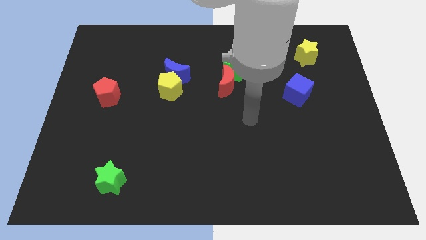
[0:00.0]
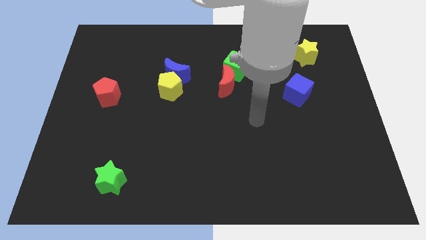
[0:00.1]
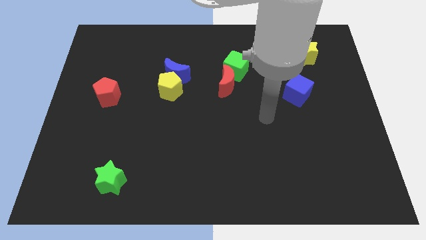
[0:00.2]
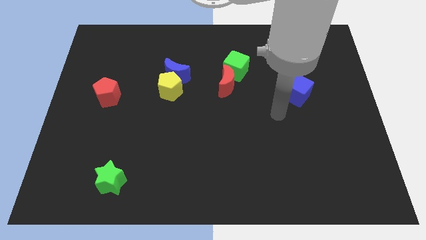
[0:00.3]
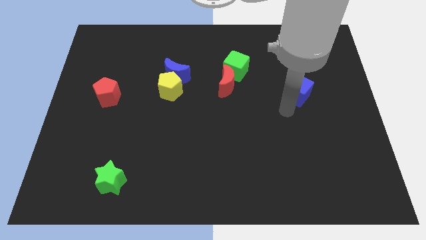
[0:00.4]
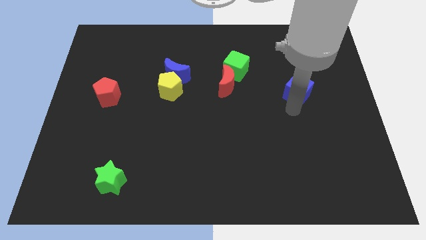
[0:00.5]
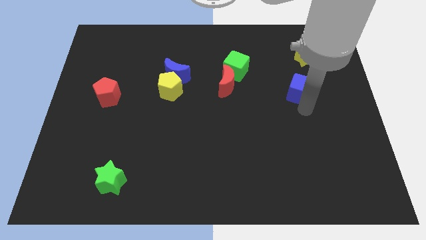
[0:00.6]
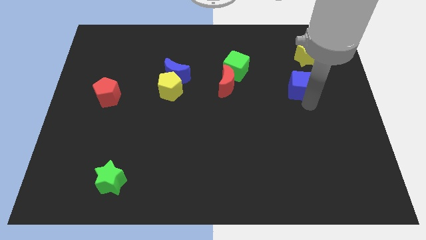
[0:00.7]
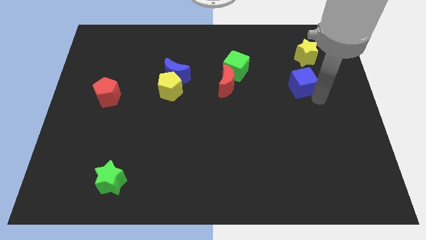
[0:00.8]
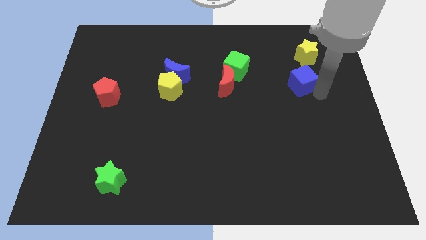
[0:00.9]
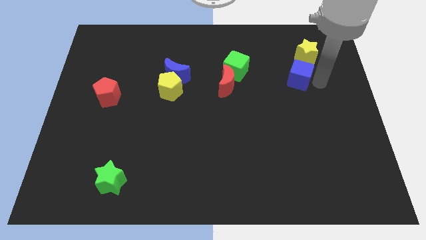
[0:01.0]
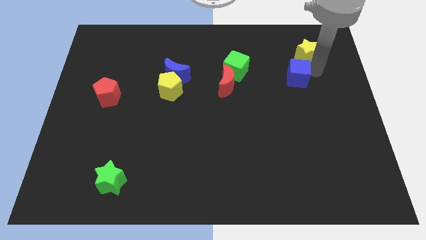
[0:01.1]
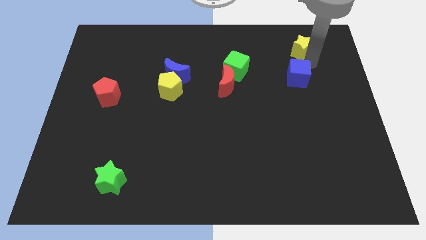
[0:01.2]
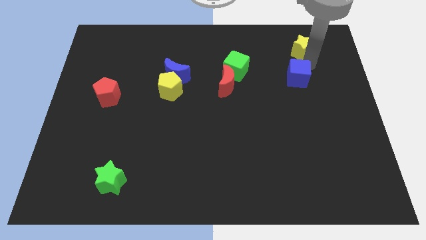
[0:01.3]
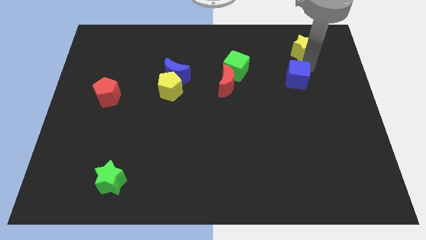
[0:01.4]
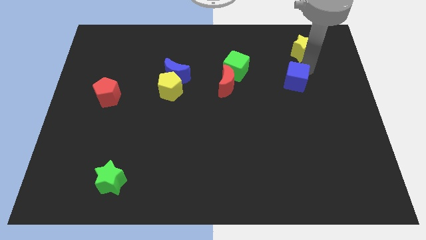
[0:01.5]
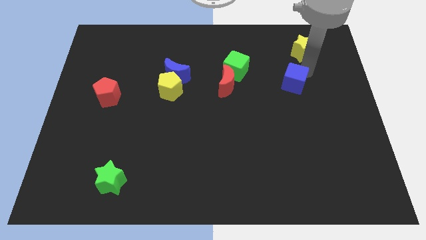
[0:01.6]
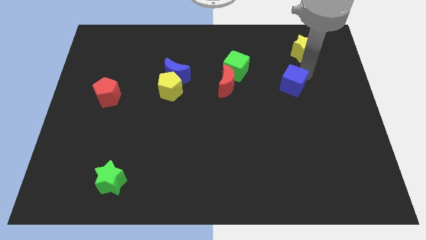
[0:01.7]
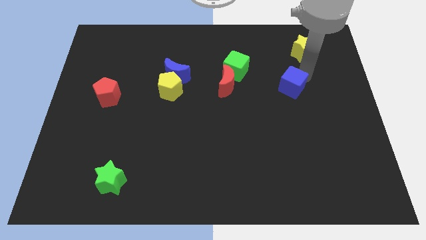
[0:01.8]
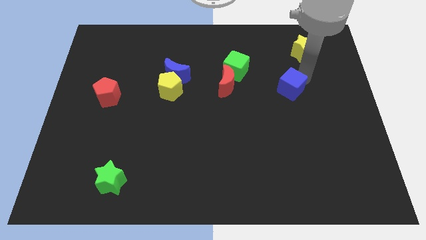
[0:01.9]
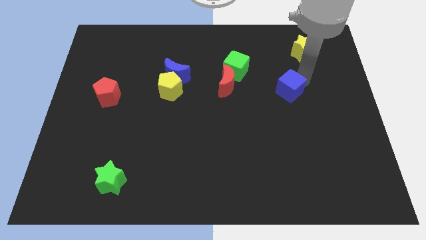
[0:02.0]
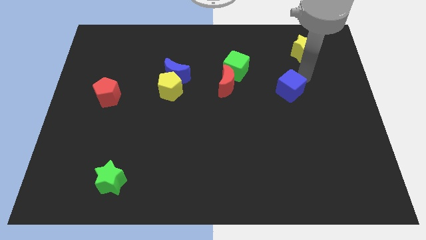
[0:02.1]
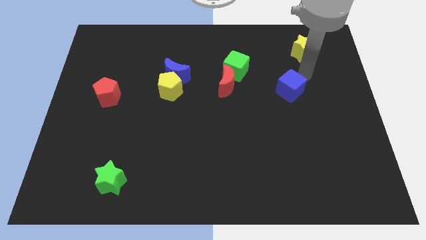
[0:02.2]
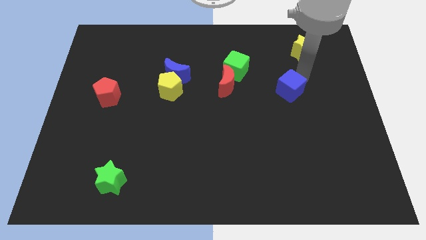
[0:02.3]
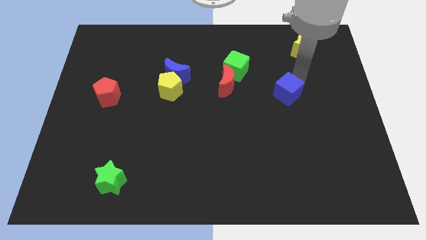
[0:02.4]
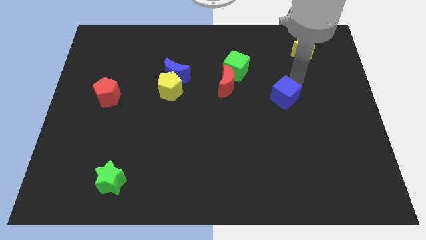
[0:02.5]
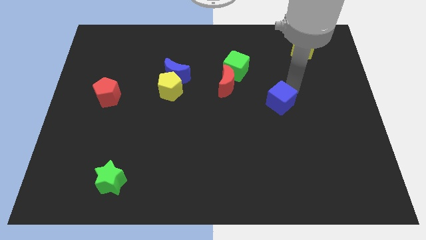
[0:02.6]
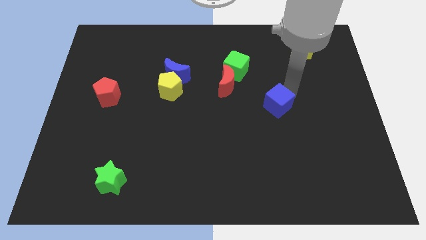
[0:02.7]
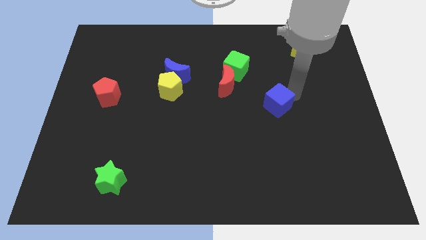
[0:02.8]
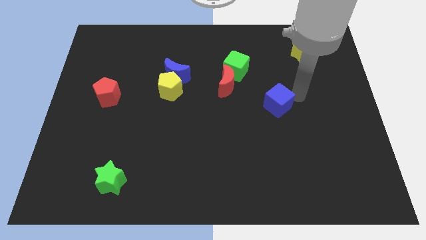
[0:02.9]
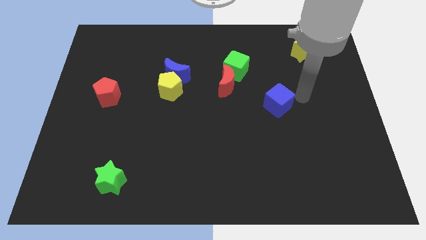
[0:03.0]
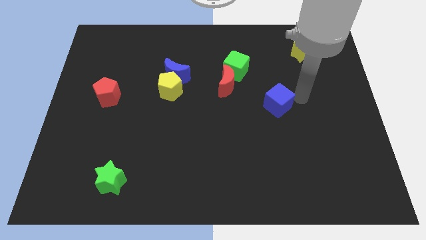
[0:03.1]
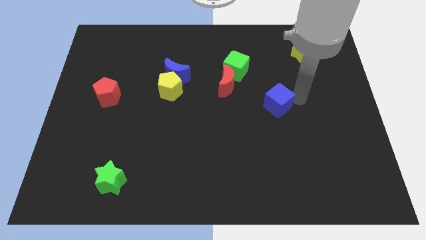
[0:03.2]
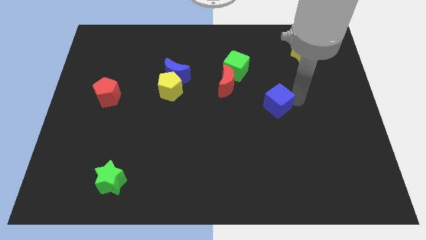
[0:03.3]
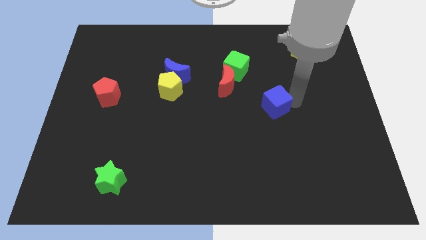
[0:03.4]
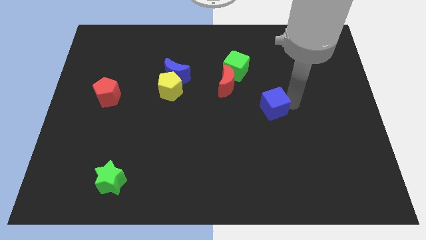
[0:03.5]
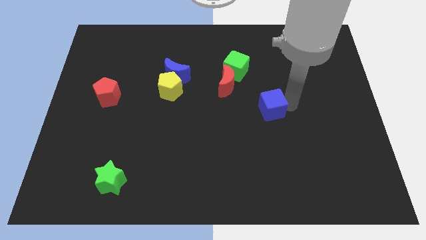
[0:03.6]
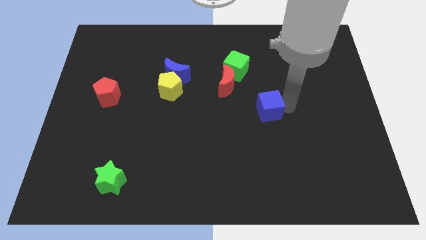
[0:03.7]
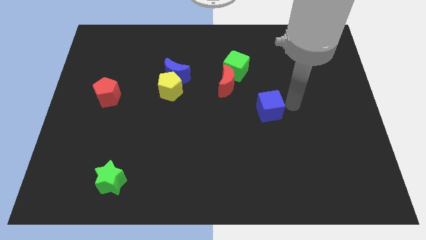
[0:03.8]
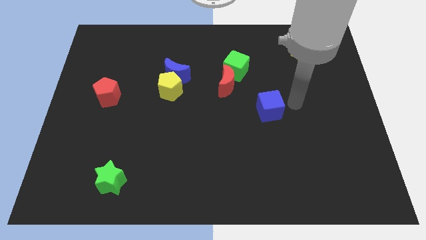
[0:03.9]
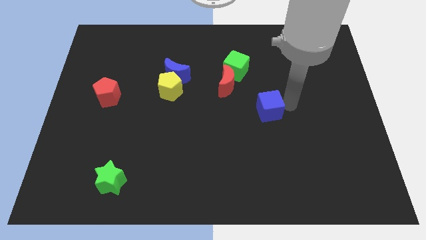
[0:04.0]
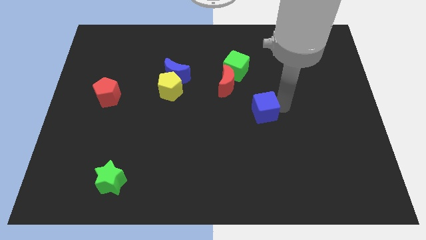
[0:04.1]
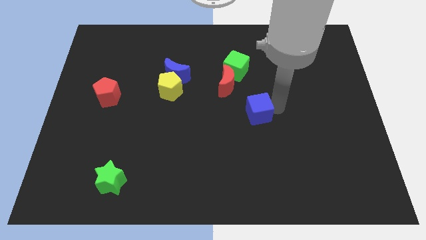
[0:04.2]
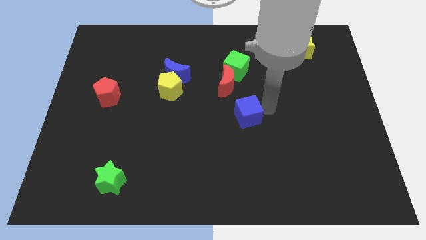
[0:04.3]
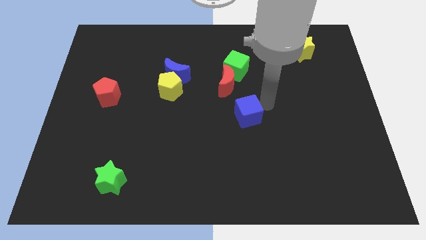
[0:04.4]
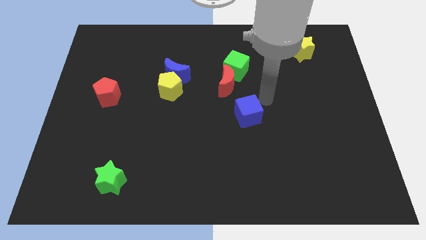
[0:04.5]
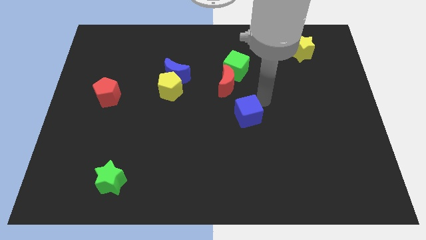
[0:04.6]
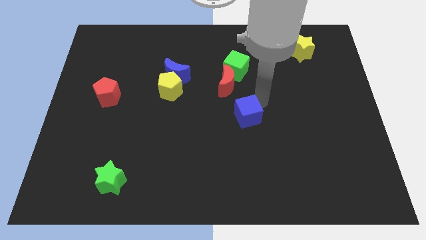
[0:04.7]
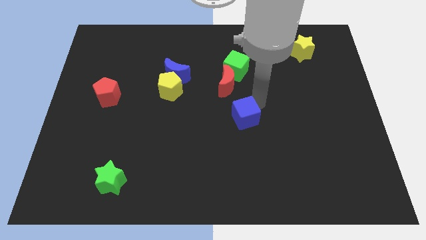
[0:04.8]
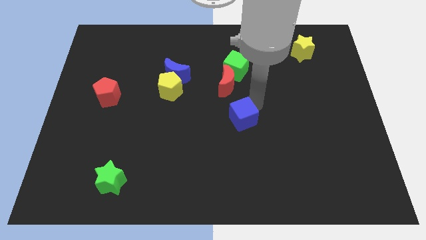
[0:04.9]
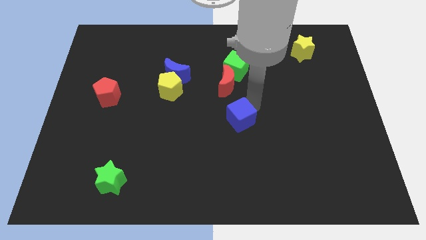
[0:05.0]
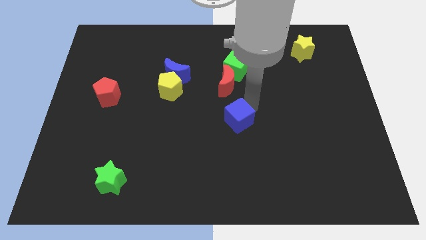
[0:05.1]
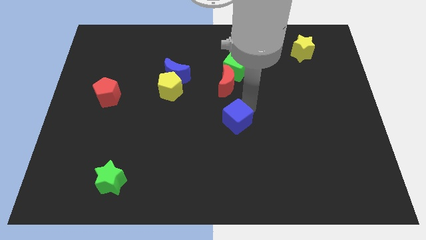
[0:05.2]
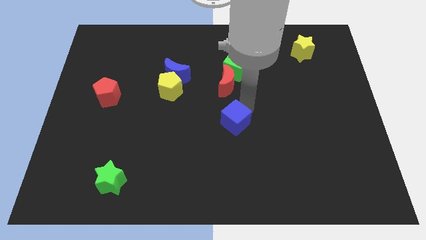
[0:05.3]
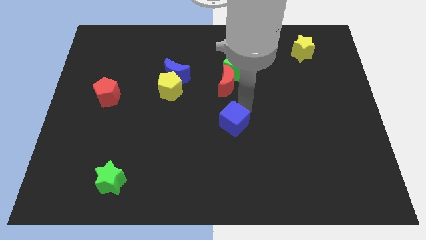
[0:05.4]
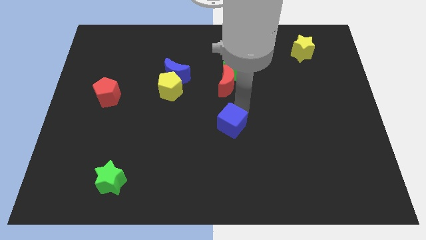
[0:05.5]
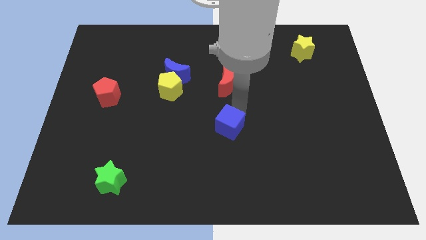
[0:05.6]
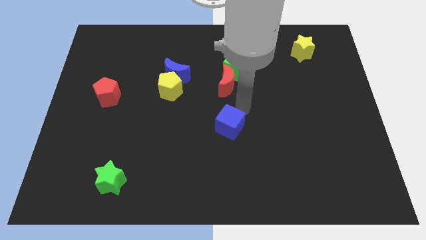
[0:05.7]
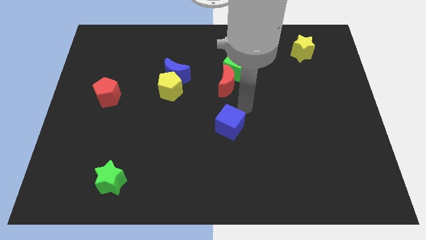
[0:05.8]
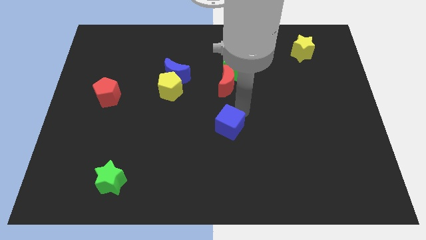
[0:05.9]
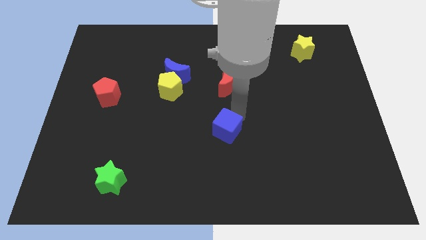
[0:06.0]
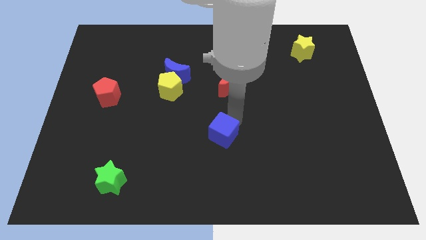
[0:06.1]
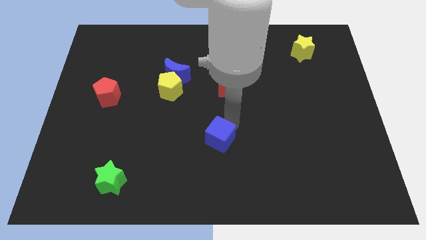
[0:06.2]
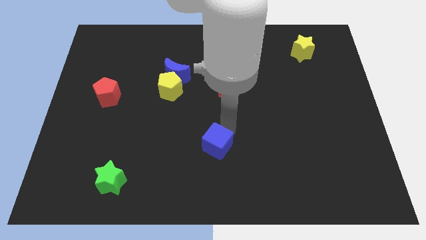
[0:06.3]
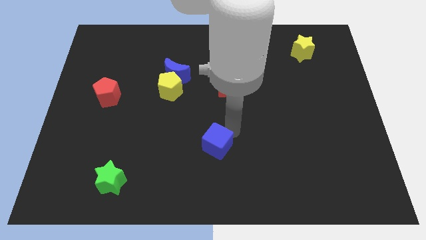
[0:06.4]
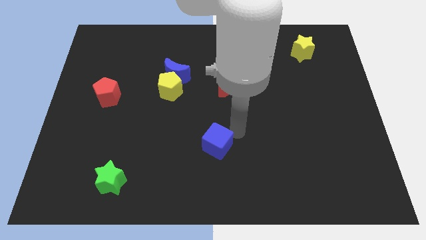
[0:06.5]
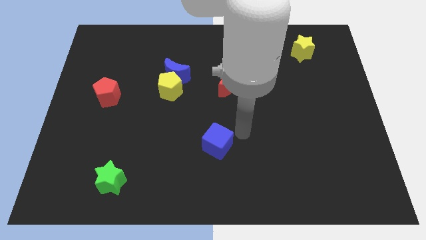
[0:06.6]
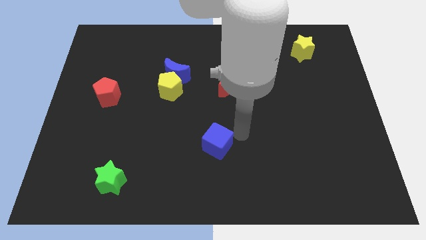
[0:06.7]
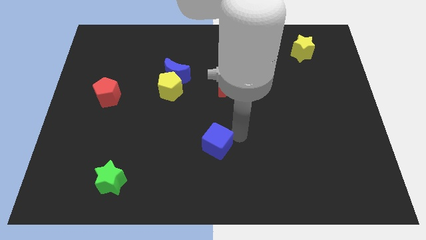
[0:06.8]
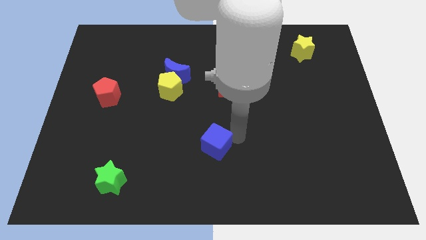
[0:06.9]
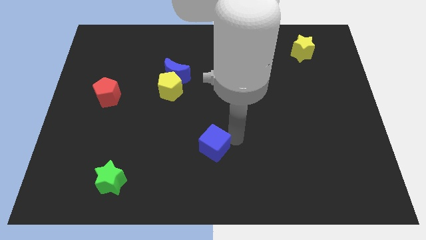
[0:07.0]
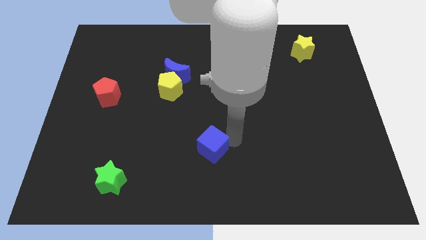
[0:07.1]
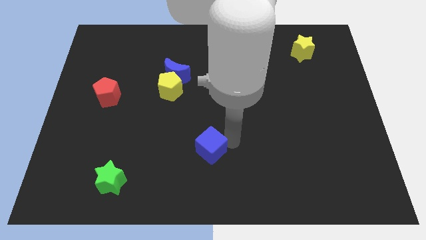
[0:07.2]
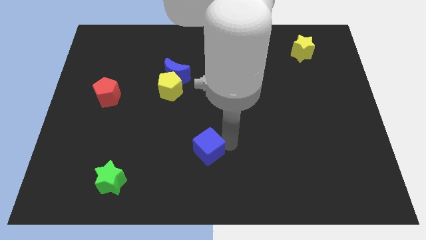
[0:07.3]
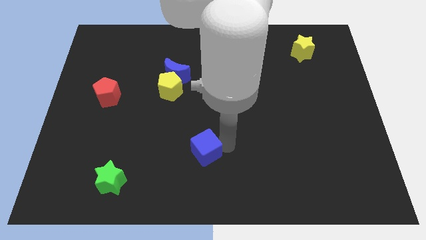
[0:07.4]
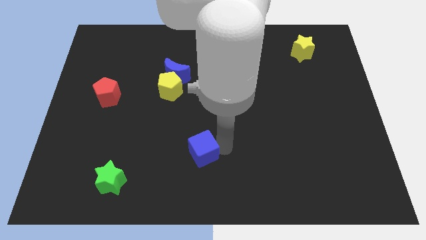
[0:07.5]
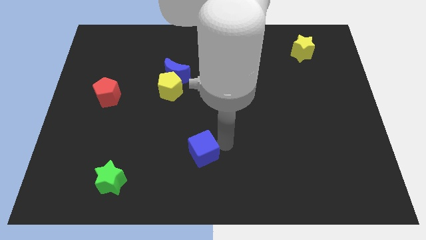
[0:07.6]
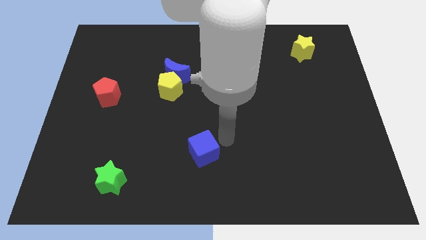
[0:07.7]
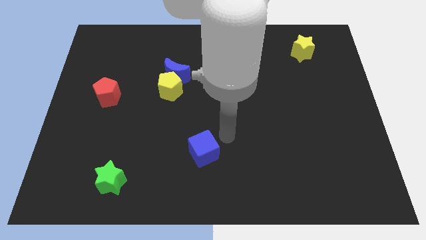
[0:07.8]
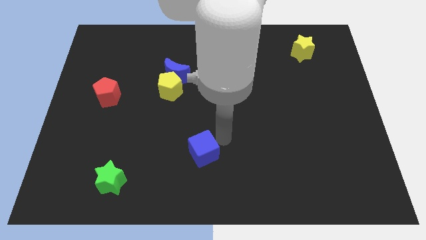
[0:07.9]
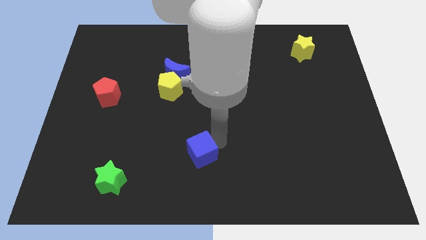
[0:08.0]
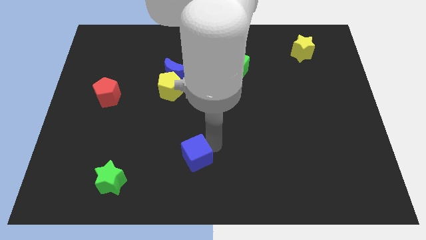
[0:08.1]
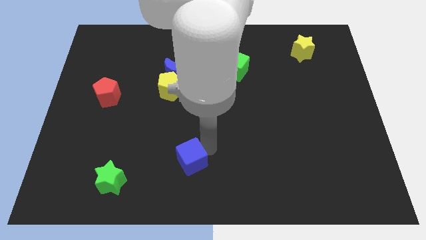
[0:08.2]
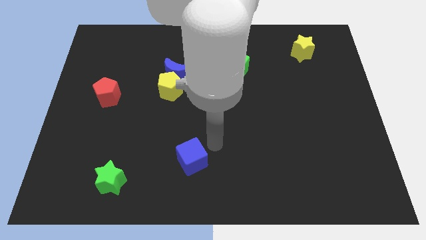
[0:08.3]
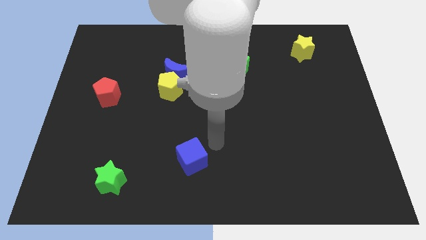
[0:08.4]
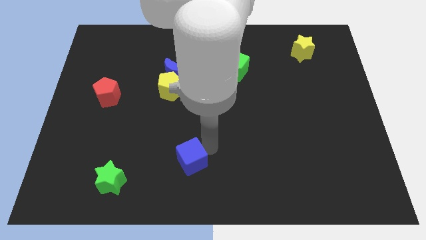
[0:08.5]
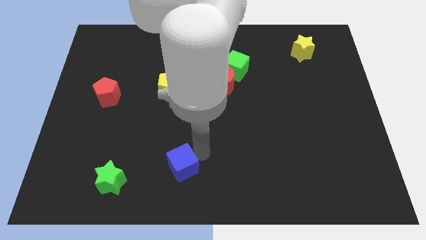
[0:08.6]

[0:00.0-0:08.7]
move the blue cube right of the green star

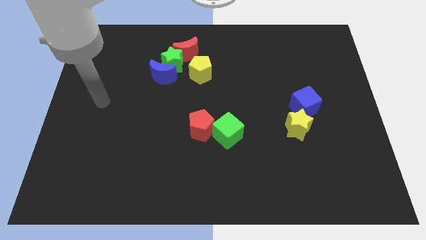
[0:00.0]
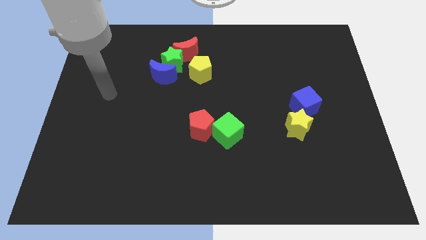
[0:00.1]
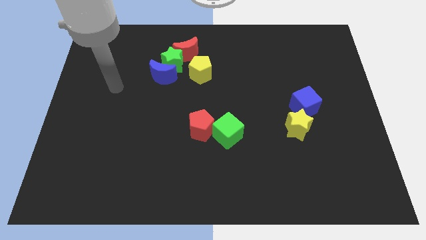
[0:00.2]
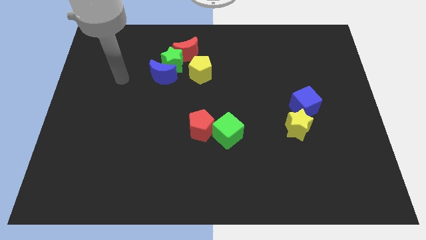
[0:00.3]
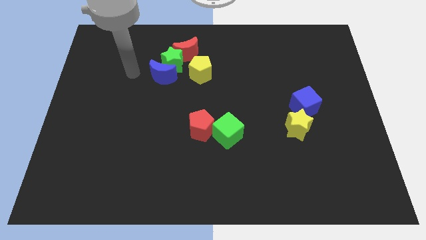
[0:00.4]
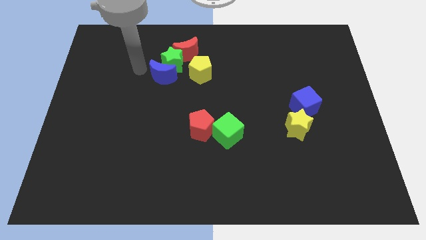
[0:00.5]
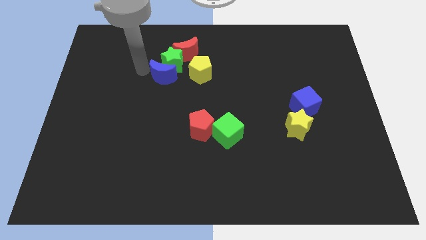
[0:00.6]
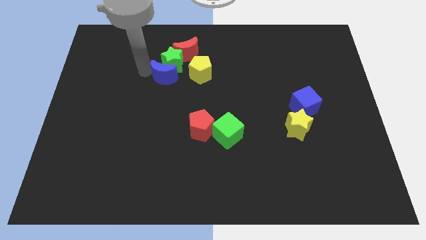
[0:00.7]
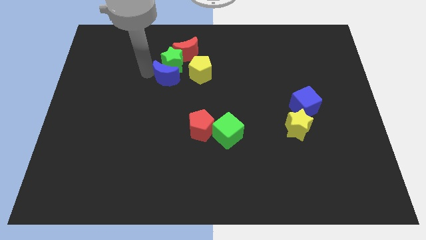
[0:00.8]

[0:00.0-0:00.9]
move the blue moon diagonally down and to the right of the green star
